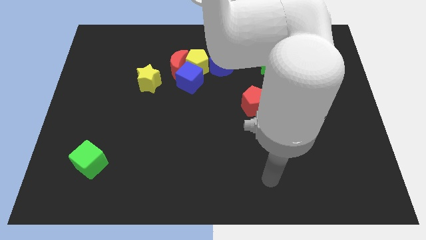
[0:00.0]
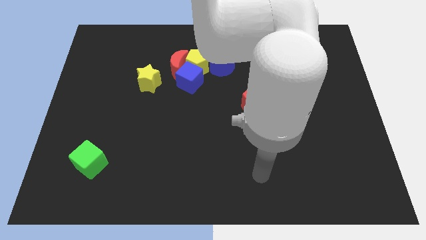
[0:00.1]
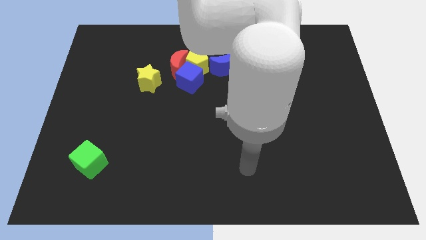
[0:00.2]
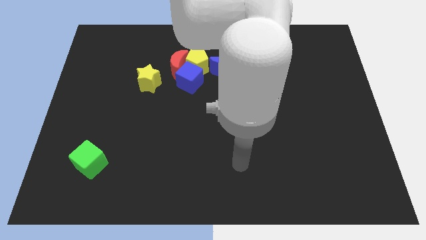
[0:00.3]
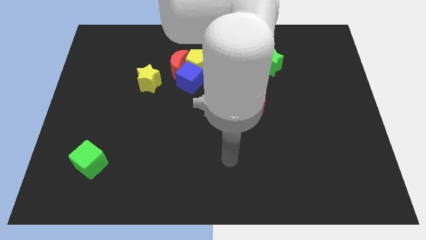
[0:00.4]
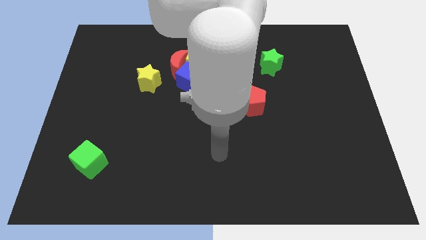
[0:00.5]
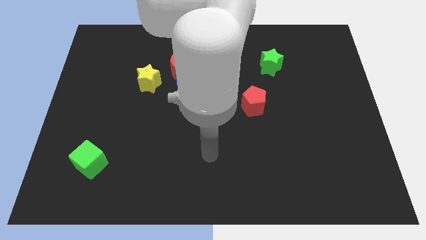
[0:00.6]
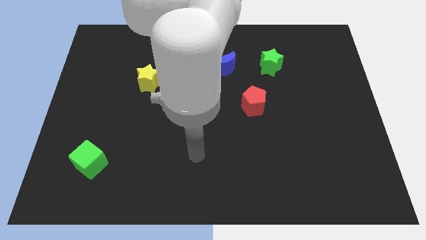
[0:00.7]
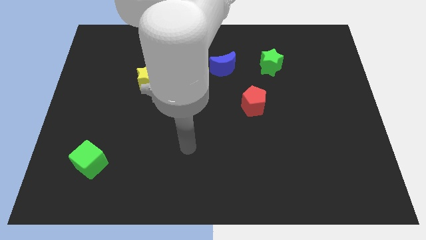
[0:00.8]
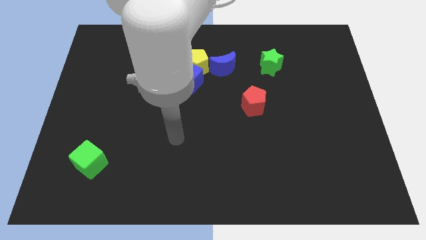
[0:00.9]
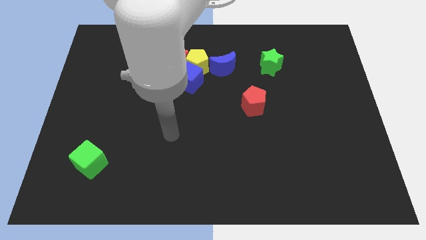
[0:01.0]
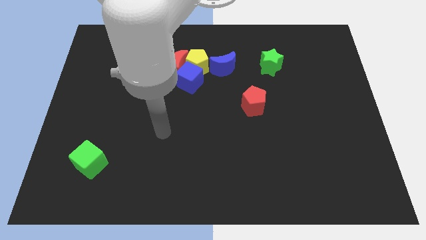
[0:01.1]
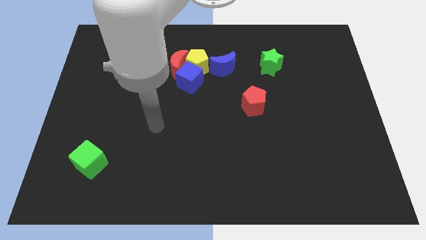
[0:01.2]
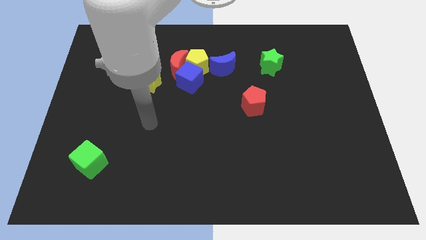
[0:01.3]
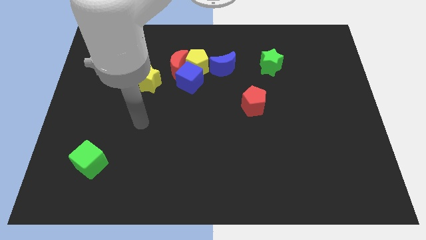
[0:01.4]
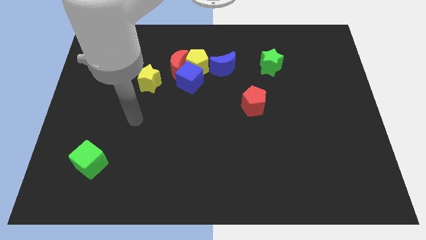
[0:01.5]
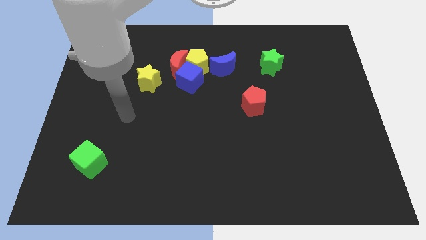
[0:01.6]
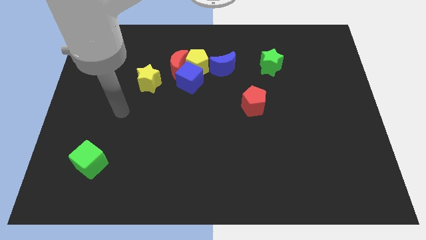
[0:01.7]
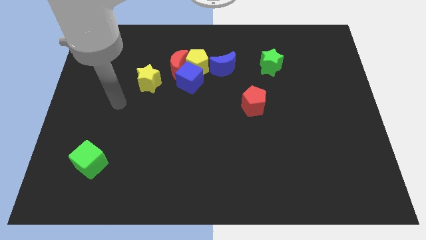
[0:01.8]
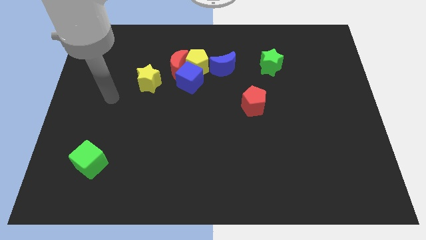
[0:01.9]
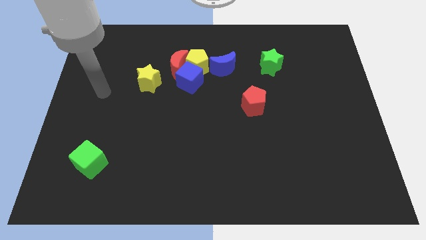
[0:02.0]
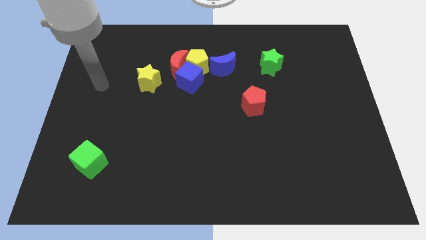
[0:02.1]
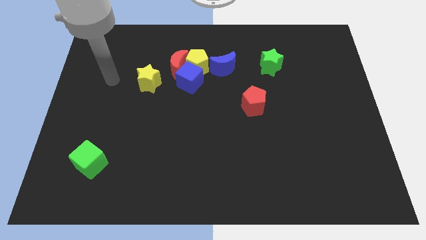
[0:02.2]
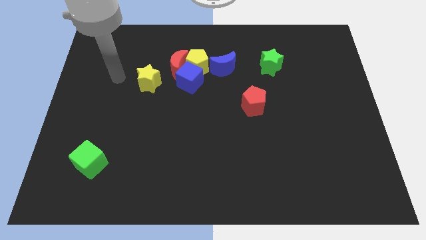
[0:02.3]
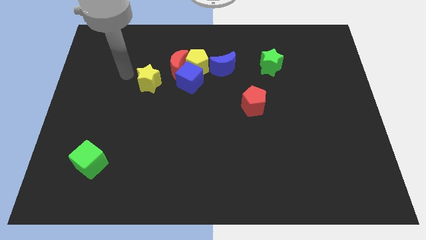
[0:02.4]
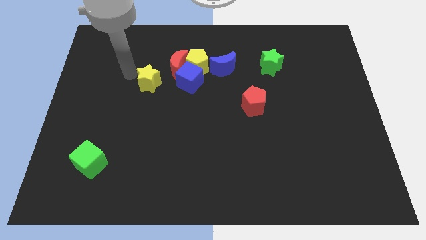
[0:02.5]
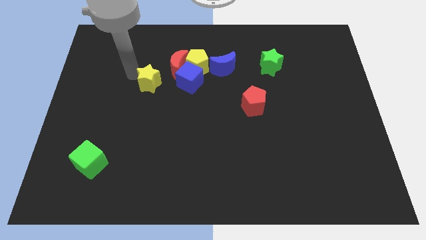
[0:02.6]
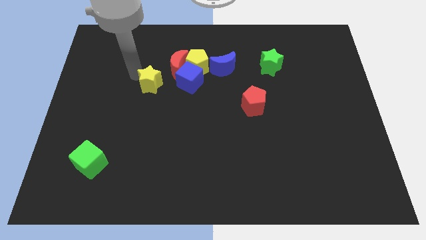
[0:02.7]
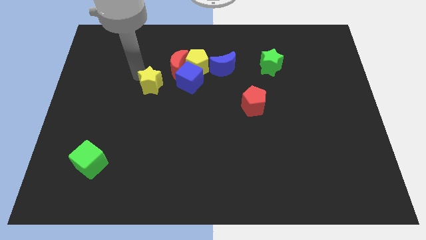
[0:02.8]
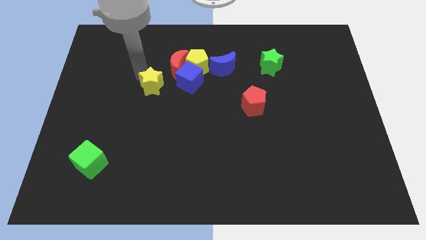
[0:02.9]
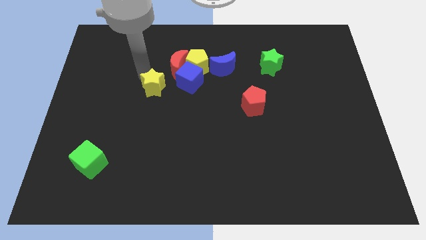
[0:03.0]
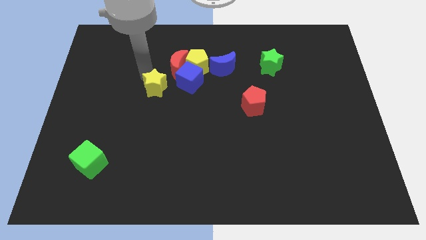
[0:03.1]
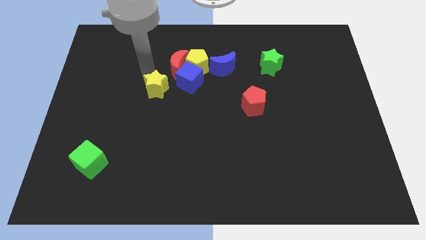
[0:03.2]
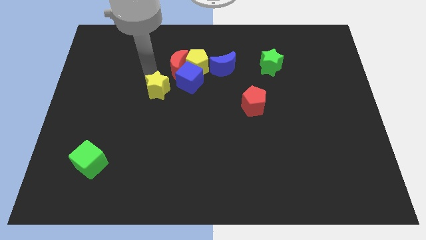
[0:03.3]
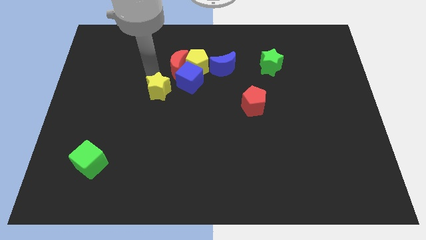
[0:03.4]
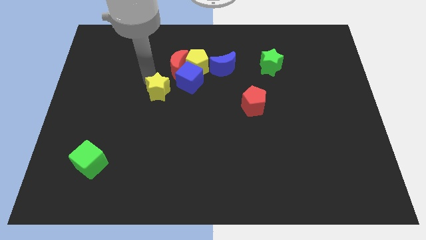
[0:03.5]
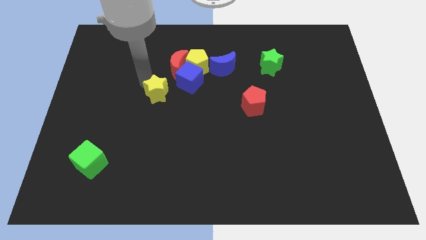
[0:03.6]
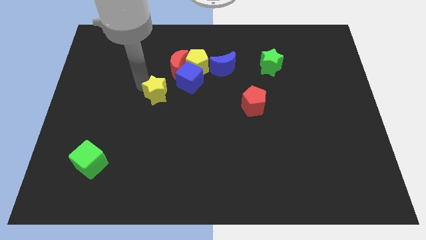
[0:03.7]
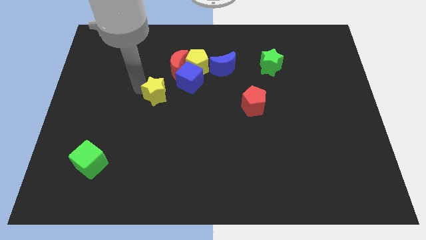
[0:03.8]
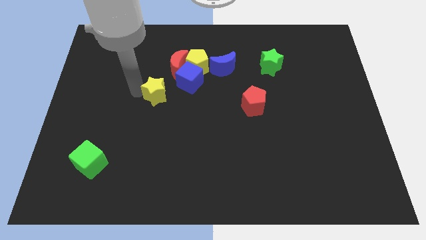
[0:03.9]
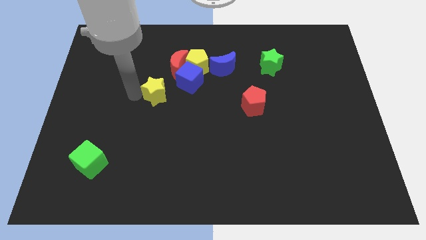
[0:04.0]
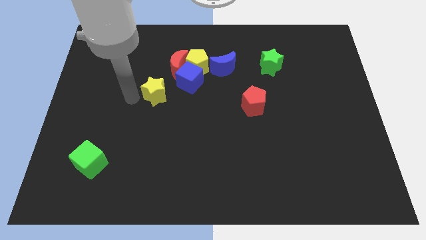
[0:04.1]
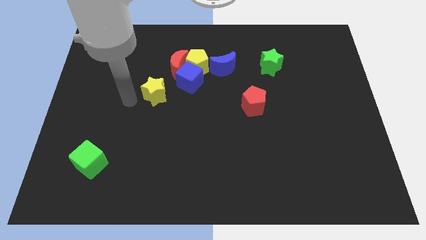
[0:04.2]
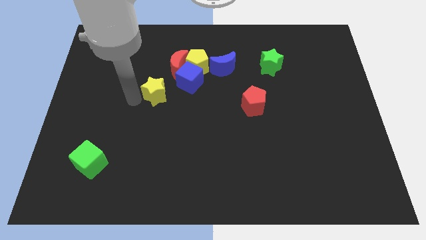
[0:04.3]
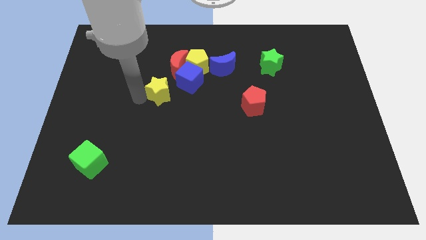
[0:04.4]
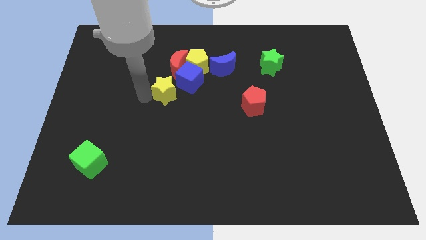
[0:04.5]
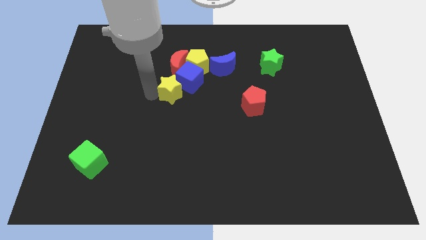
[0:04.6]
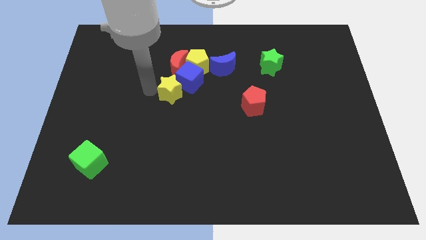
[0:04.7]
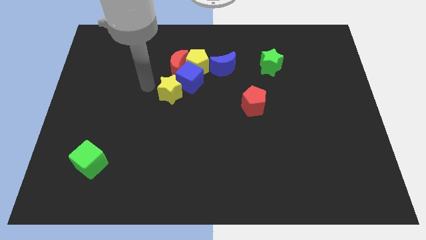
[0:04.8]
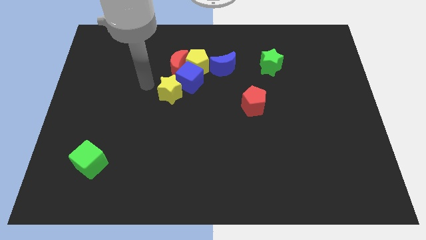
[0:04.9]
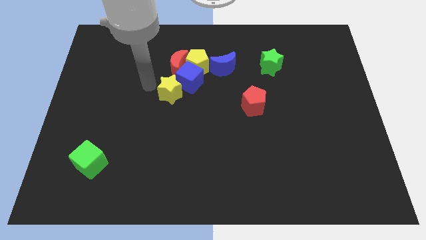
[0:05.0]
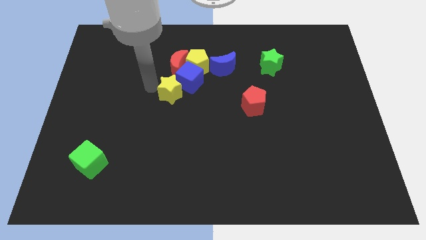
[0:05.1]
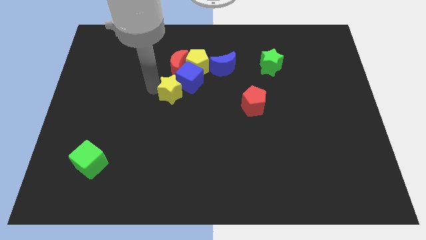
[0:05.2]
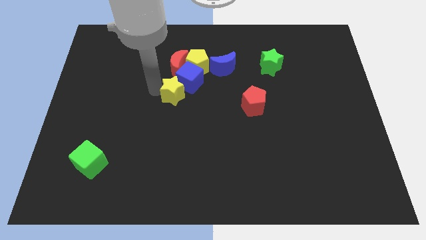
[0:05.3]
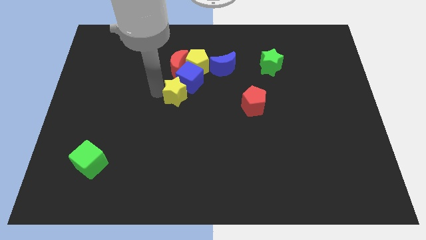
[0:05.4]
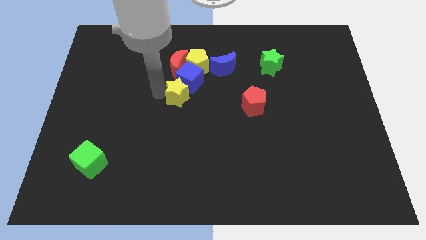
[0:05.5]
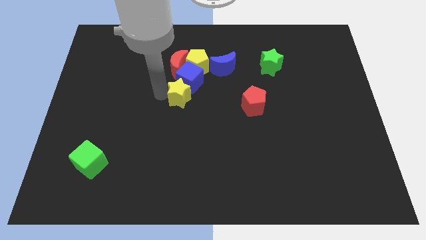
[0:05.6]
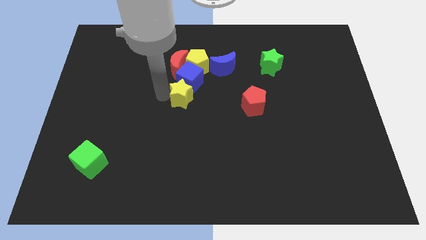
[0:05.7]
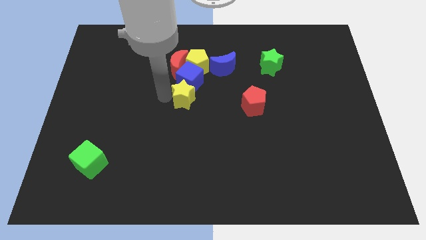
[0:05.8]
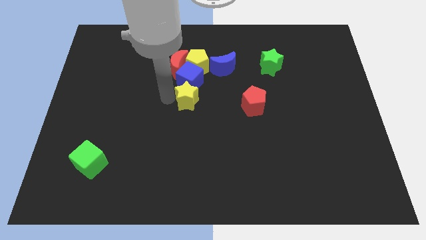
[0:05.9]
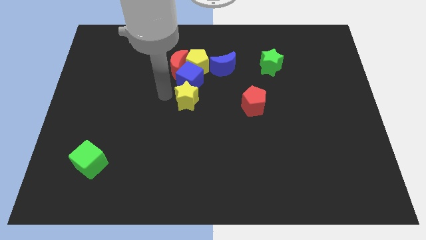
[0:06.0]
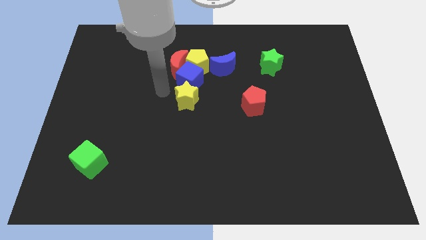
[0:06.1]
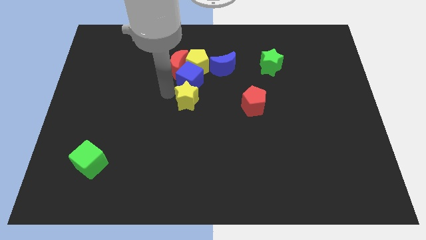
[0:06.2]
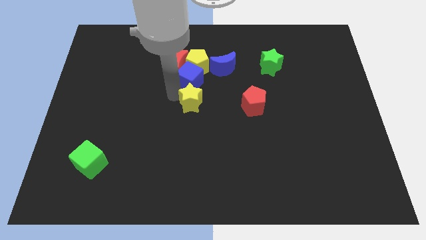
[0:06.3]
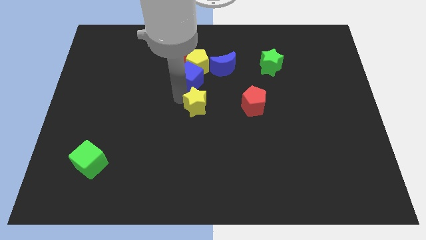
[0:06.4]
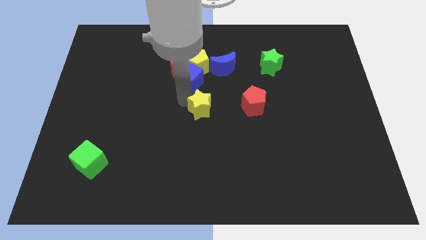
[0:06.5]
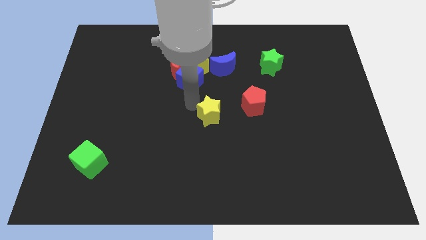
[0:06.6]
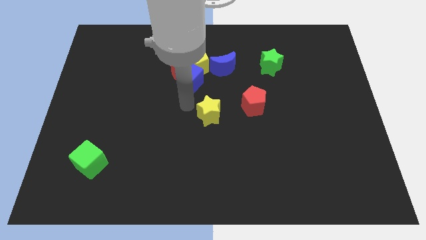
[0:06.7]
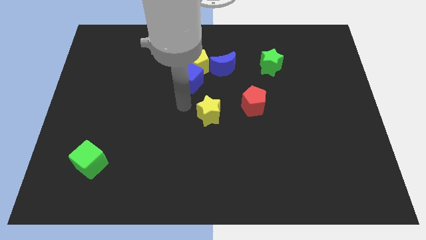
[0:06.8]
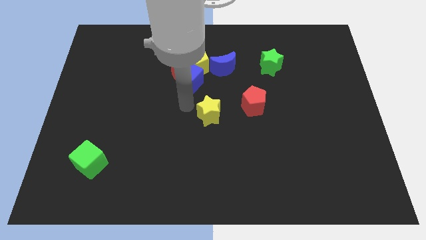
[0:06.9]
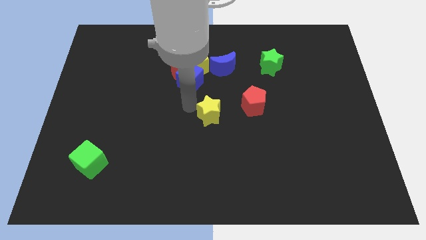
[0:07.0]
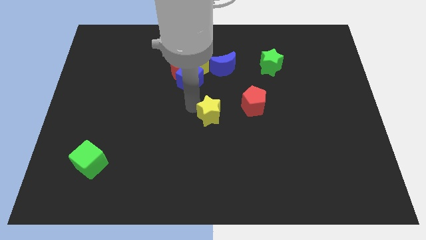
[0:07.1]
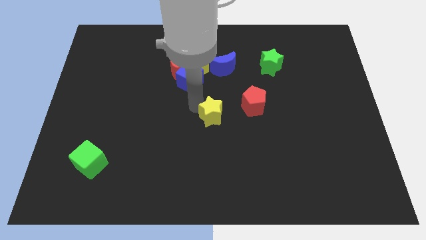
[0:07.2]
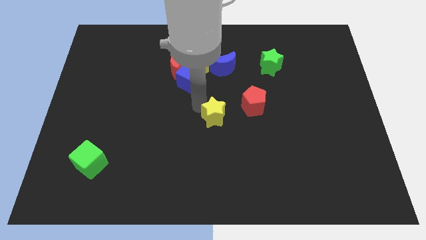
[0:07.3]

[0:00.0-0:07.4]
put the yellow star diagonally down and to the left of the red pentagon

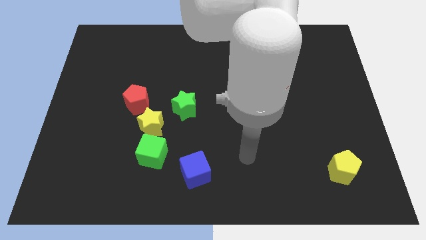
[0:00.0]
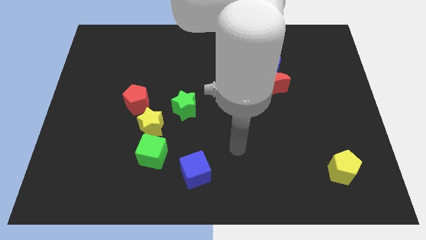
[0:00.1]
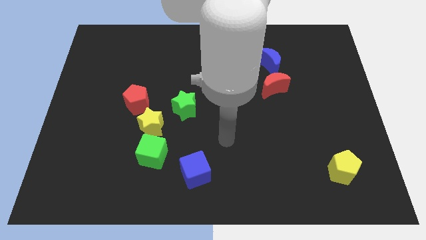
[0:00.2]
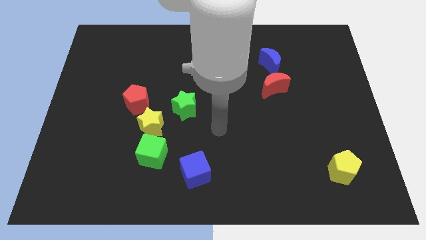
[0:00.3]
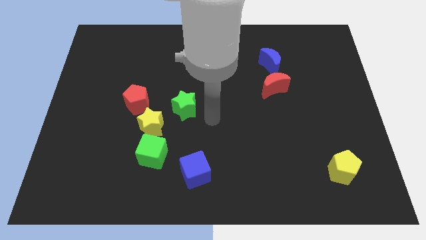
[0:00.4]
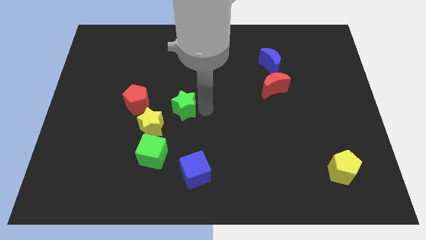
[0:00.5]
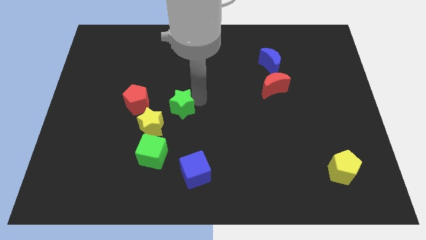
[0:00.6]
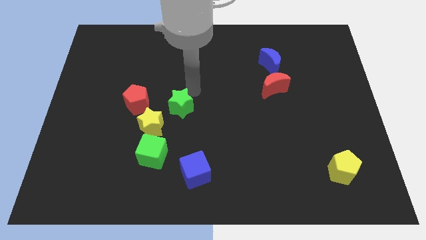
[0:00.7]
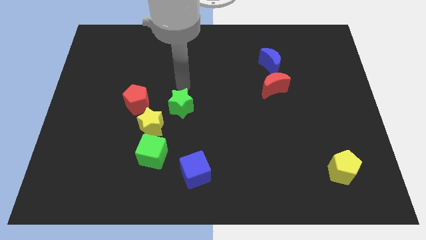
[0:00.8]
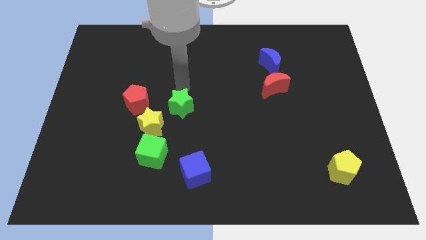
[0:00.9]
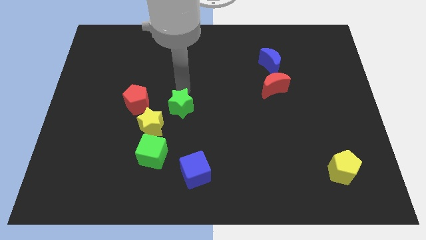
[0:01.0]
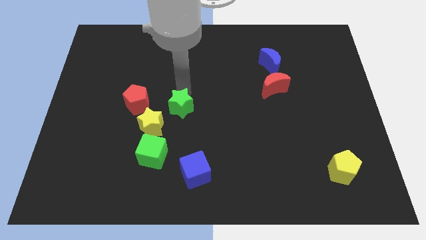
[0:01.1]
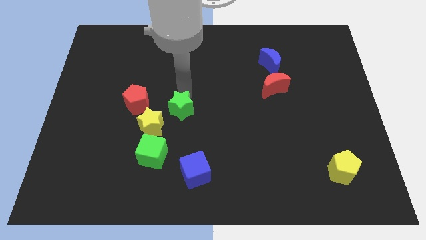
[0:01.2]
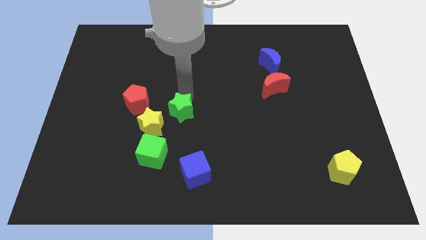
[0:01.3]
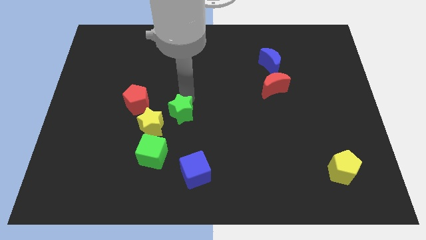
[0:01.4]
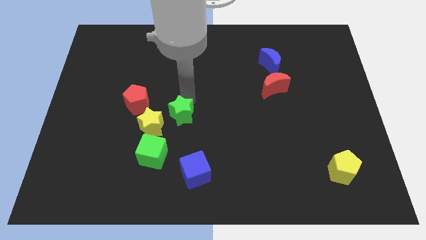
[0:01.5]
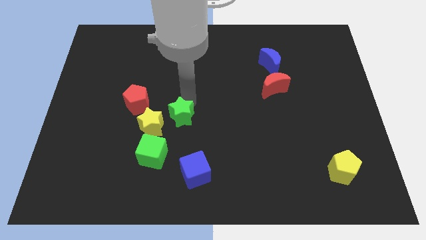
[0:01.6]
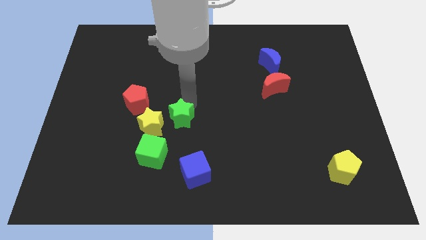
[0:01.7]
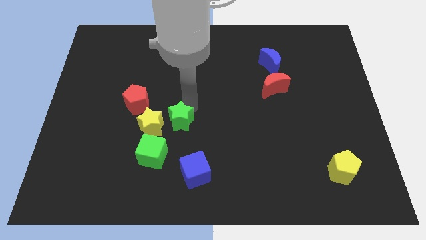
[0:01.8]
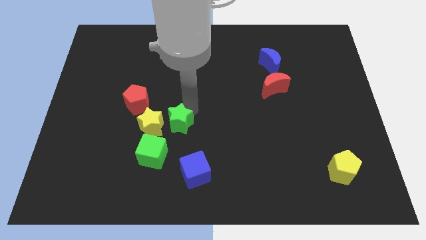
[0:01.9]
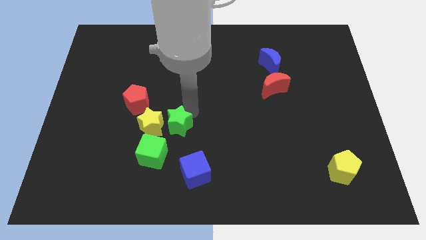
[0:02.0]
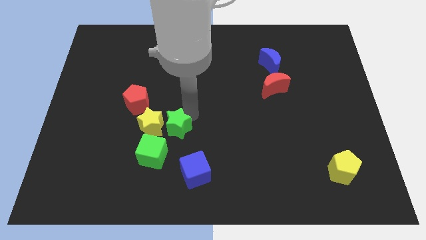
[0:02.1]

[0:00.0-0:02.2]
move the green star diagonally down and to the right of the yellow star
